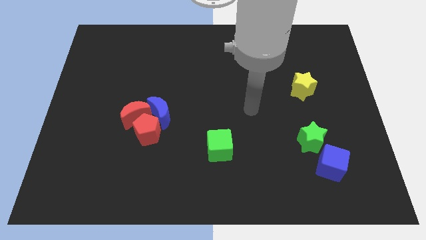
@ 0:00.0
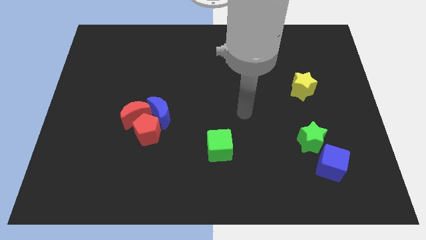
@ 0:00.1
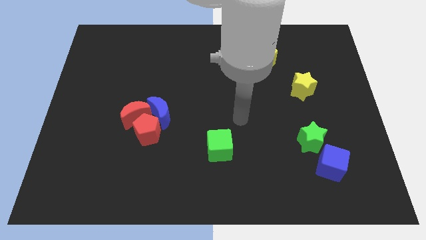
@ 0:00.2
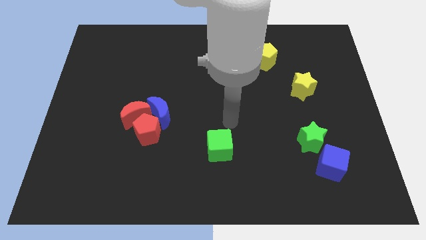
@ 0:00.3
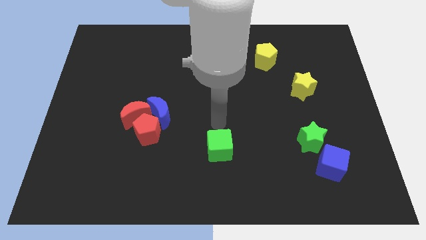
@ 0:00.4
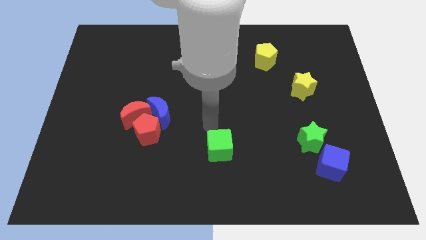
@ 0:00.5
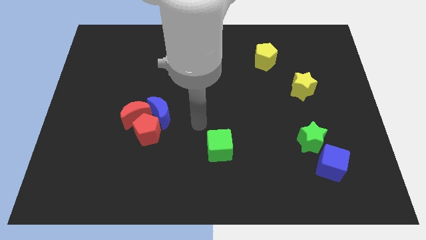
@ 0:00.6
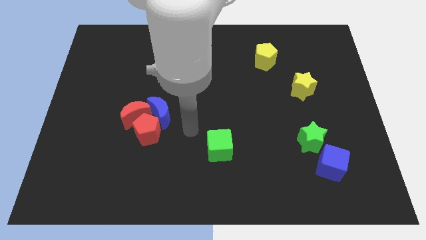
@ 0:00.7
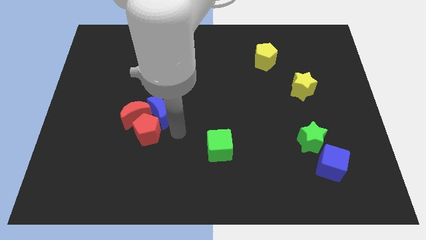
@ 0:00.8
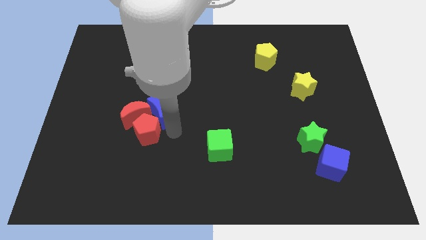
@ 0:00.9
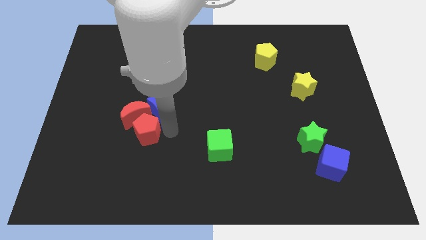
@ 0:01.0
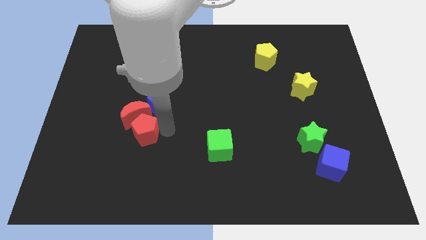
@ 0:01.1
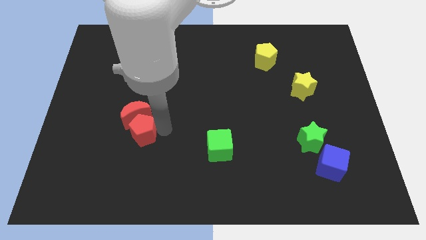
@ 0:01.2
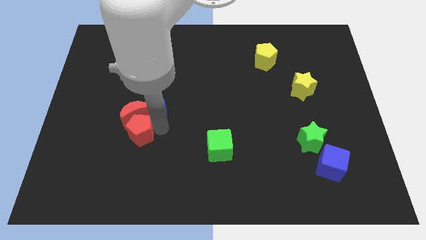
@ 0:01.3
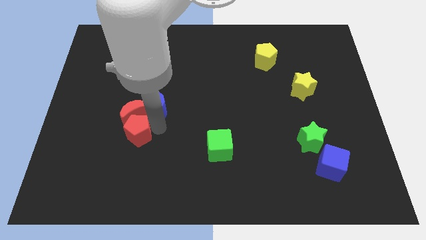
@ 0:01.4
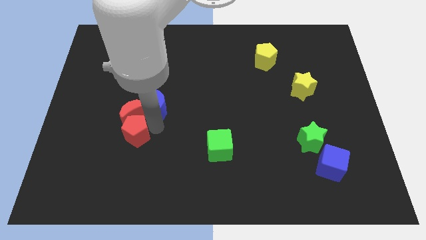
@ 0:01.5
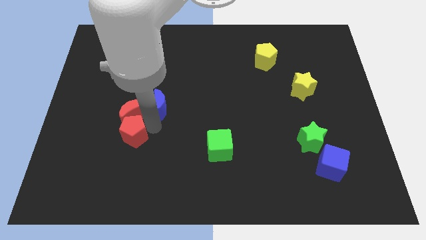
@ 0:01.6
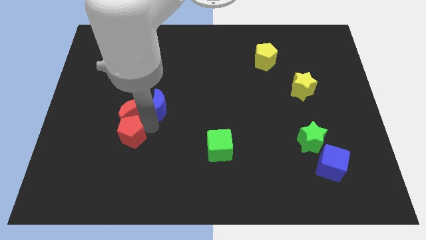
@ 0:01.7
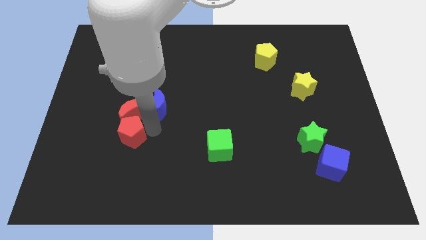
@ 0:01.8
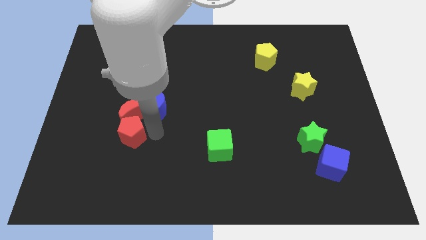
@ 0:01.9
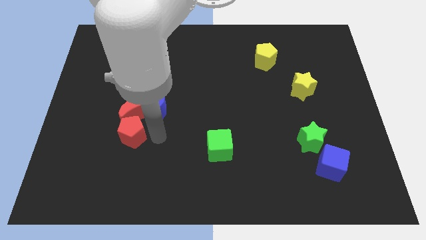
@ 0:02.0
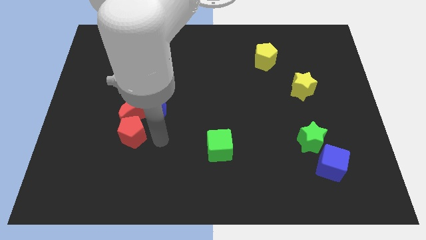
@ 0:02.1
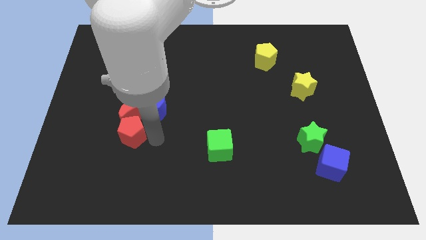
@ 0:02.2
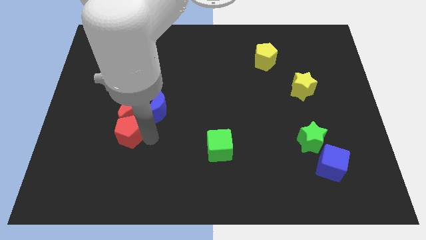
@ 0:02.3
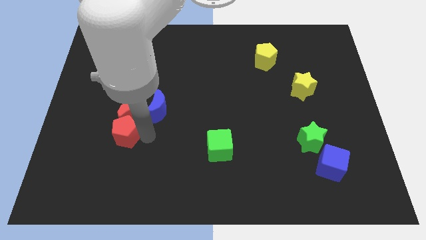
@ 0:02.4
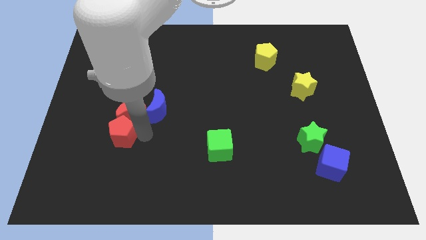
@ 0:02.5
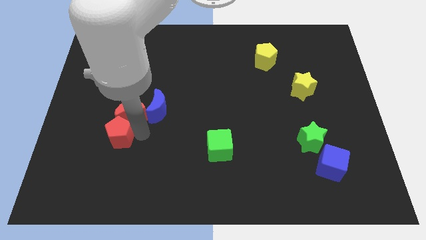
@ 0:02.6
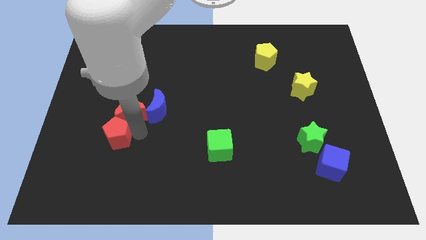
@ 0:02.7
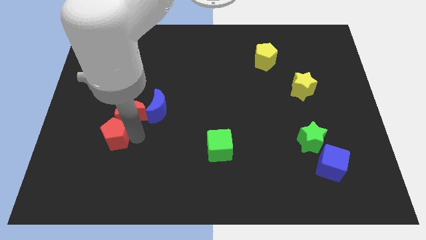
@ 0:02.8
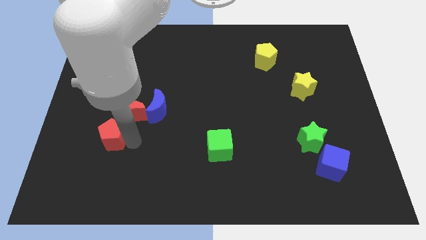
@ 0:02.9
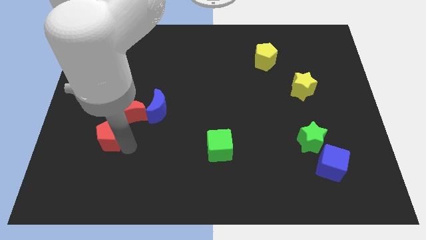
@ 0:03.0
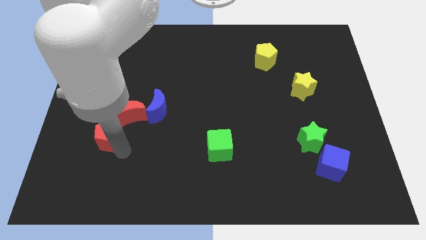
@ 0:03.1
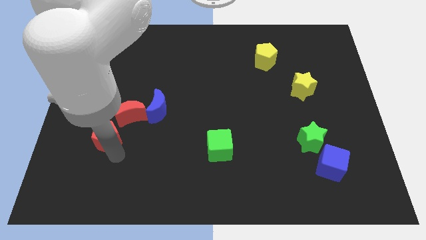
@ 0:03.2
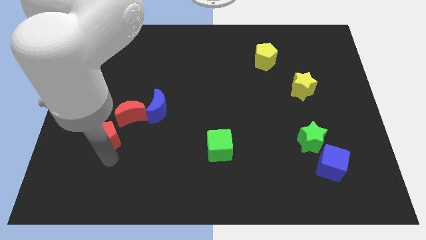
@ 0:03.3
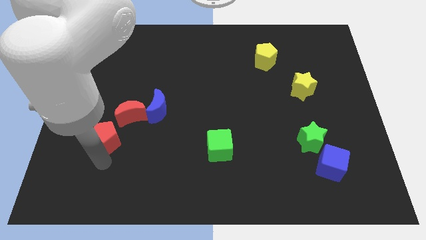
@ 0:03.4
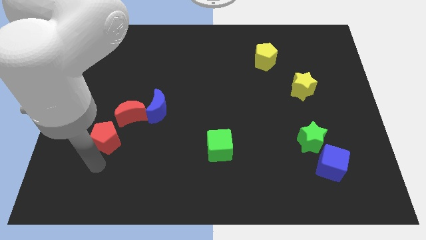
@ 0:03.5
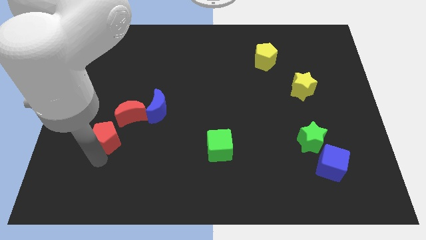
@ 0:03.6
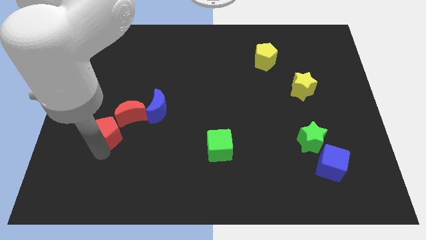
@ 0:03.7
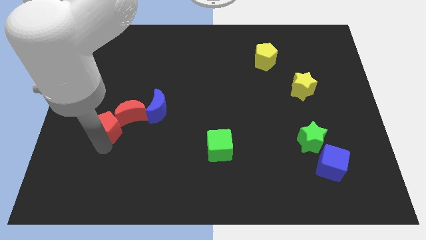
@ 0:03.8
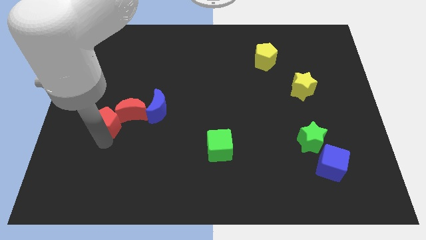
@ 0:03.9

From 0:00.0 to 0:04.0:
slide the red pentagon a little bit upwards and then left

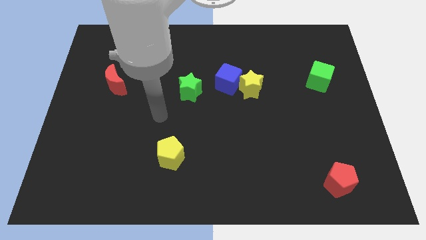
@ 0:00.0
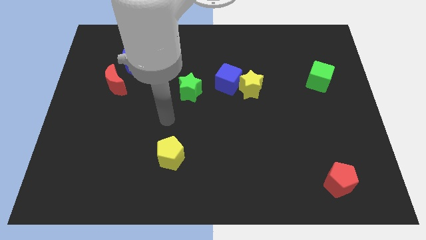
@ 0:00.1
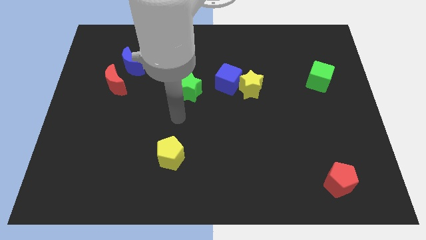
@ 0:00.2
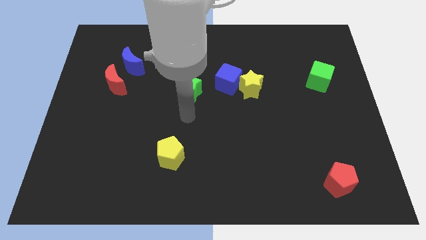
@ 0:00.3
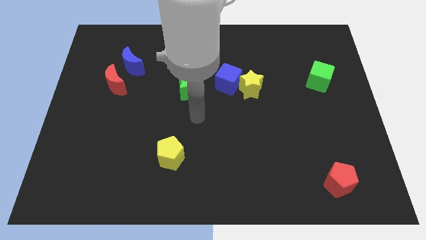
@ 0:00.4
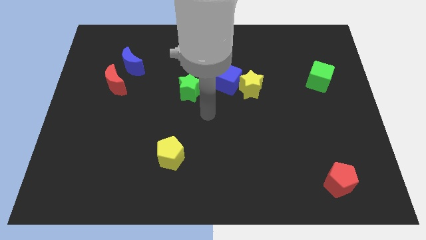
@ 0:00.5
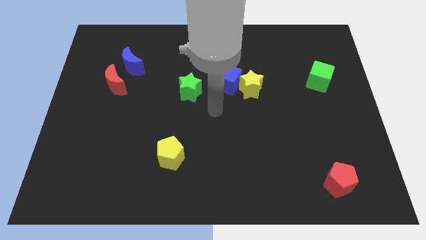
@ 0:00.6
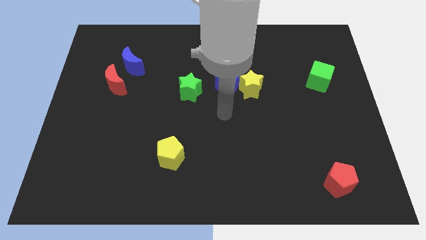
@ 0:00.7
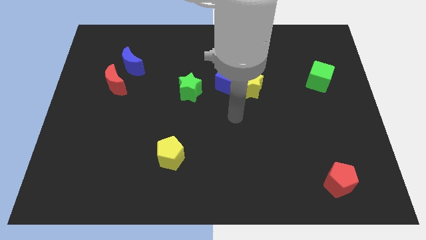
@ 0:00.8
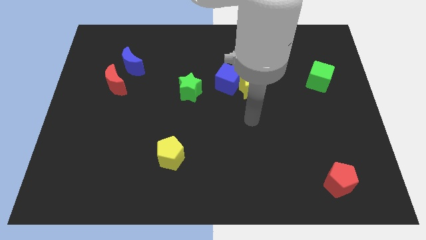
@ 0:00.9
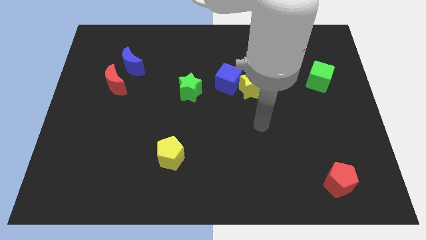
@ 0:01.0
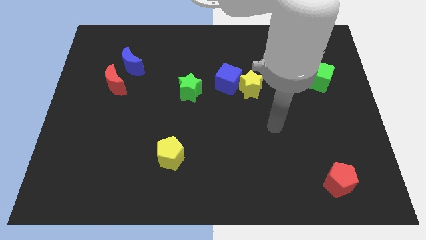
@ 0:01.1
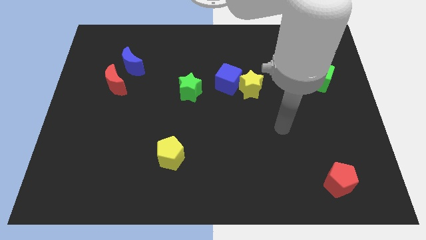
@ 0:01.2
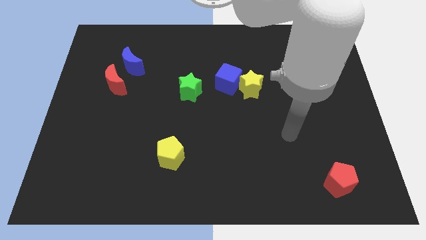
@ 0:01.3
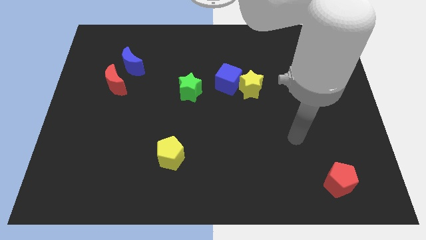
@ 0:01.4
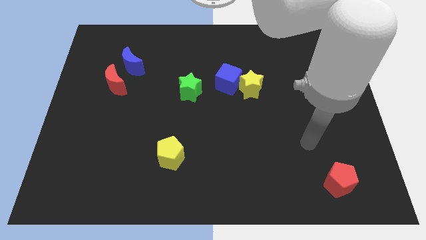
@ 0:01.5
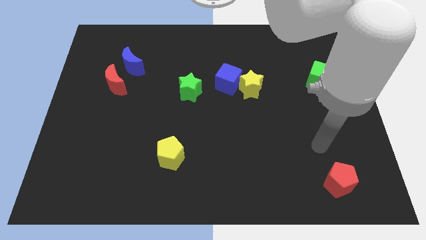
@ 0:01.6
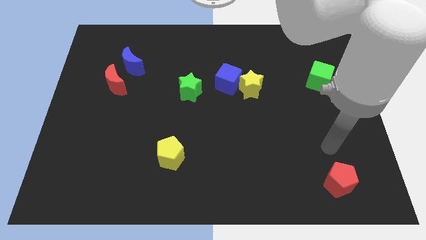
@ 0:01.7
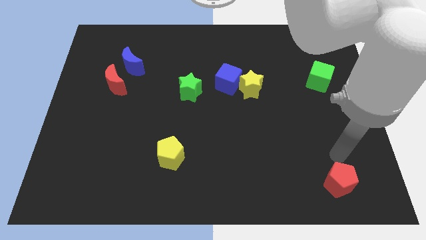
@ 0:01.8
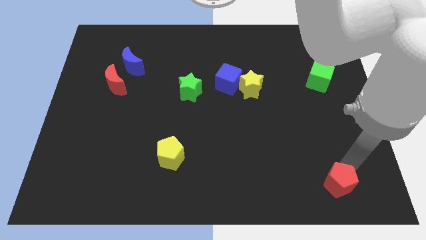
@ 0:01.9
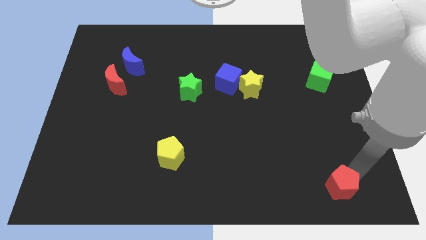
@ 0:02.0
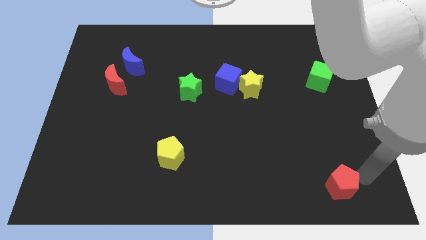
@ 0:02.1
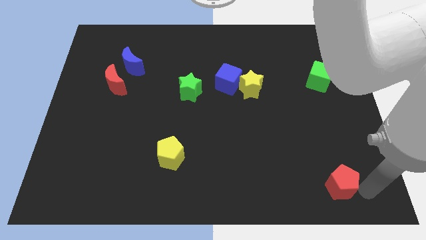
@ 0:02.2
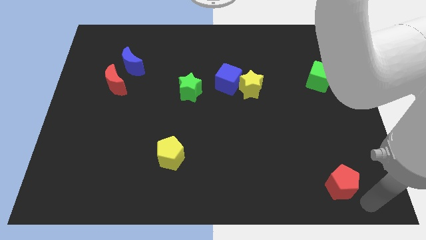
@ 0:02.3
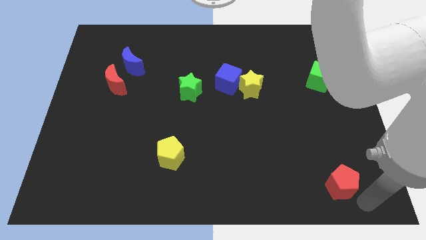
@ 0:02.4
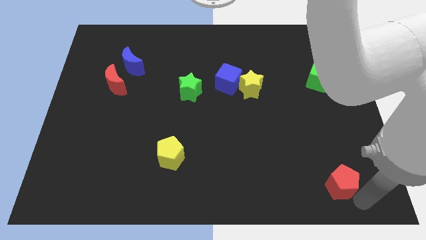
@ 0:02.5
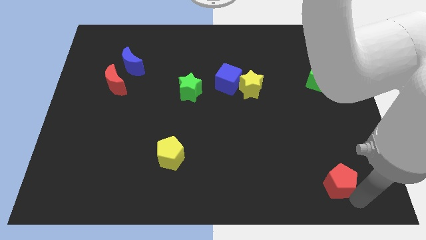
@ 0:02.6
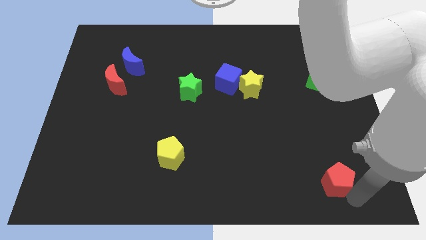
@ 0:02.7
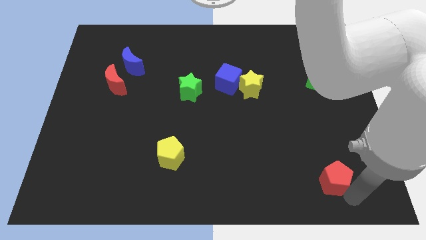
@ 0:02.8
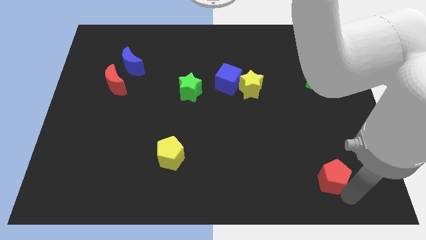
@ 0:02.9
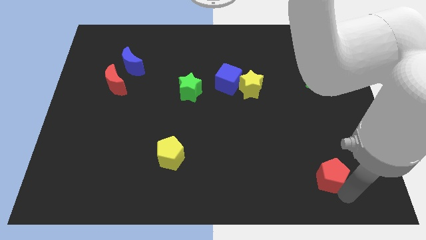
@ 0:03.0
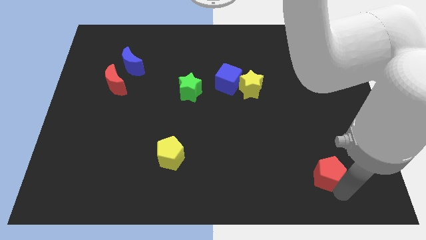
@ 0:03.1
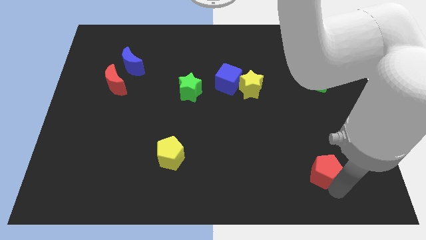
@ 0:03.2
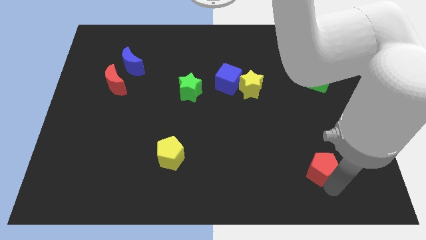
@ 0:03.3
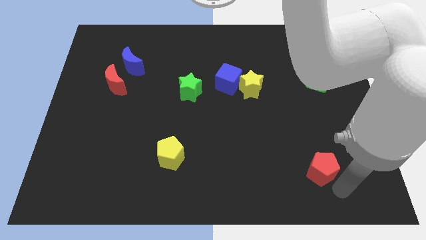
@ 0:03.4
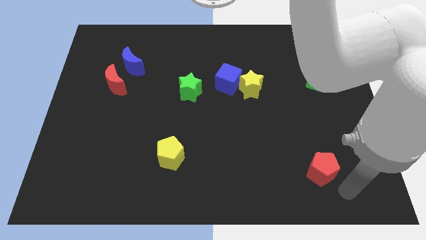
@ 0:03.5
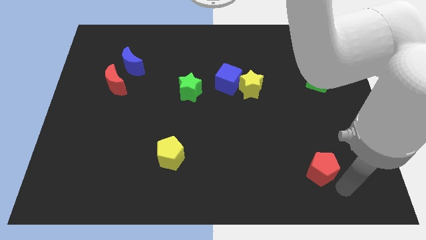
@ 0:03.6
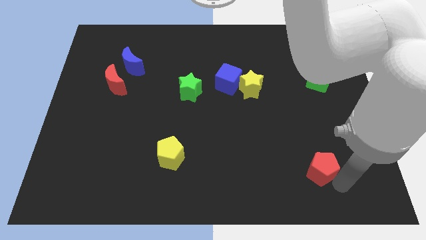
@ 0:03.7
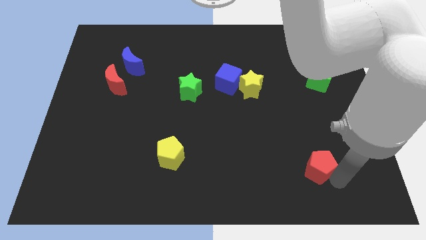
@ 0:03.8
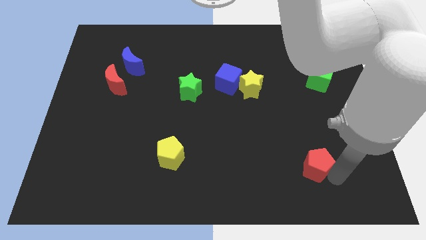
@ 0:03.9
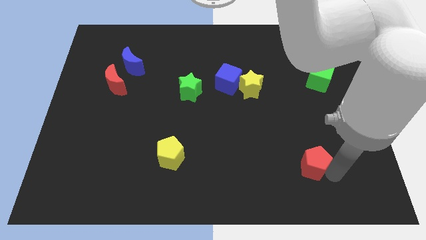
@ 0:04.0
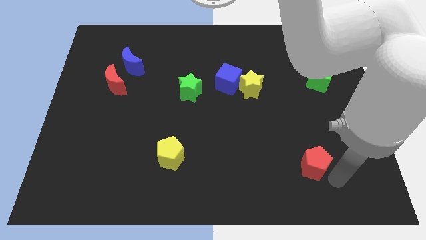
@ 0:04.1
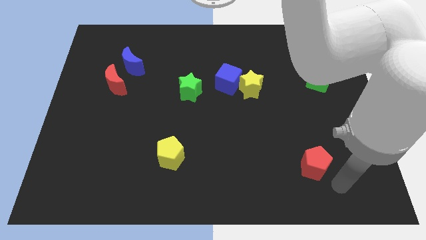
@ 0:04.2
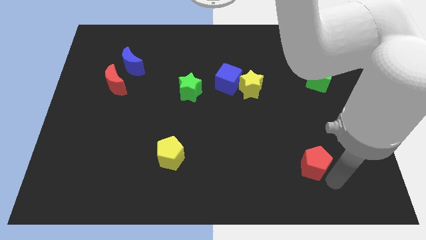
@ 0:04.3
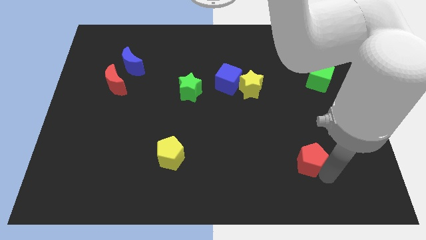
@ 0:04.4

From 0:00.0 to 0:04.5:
slide the red pentagon upwards and to the left a little
